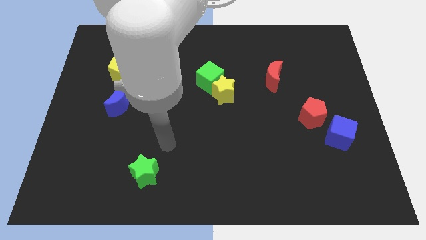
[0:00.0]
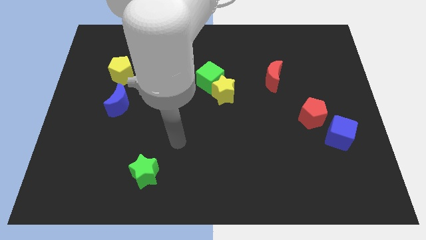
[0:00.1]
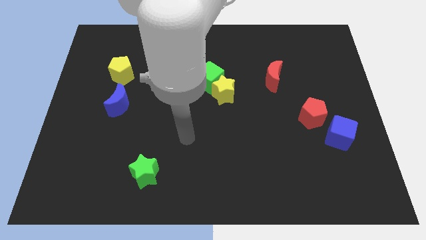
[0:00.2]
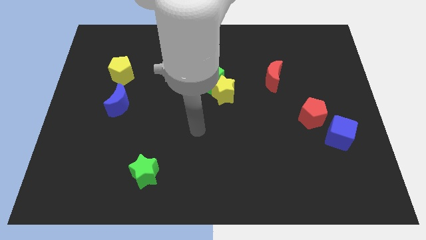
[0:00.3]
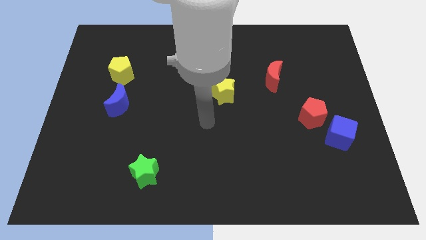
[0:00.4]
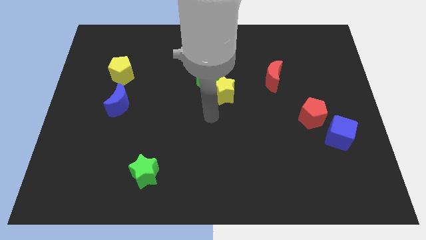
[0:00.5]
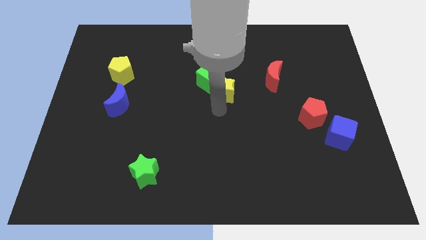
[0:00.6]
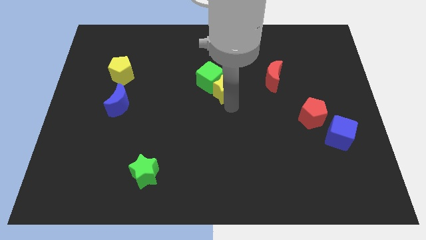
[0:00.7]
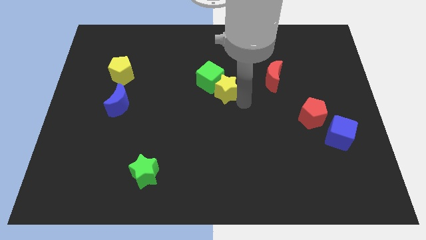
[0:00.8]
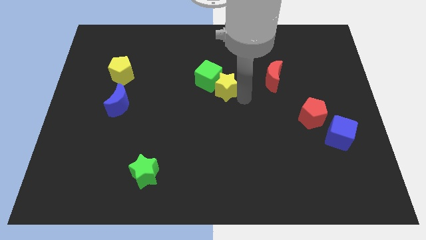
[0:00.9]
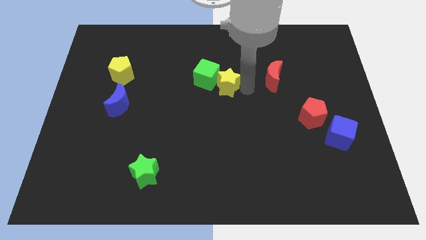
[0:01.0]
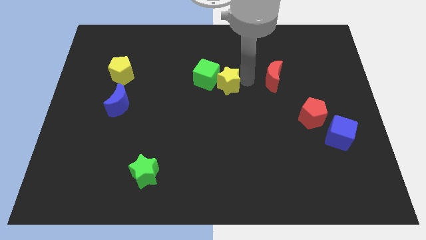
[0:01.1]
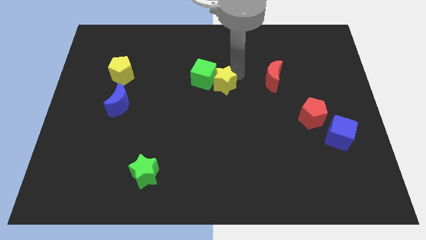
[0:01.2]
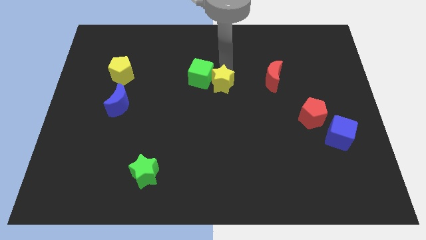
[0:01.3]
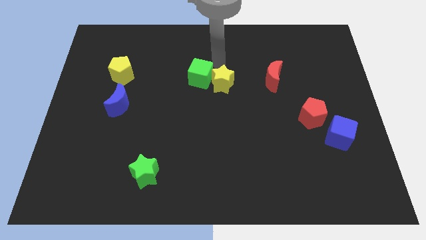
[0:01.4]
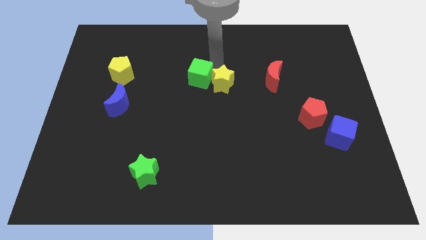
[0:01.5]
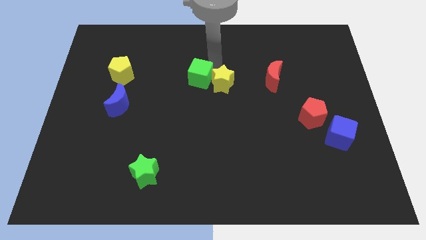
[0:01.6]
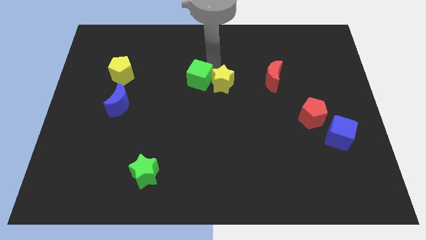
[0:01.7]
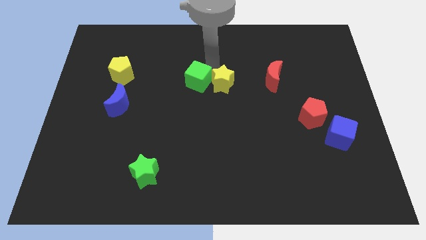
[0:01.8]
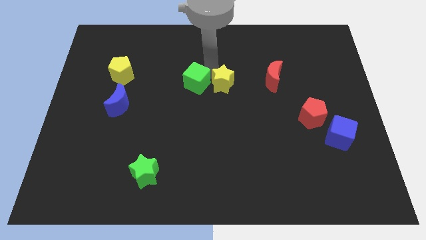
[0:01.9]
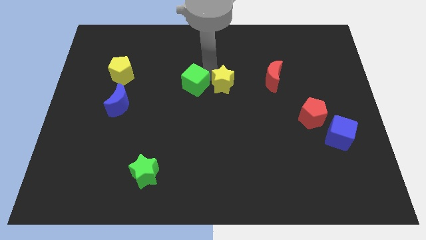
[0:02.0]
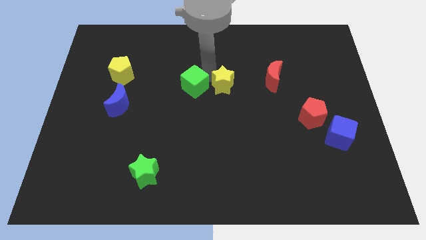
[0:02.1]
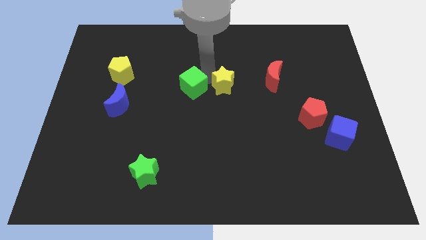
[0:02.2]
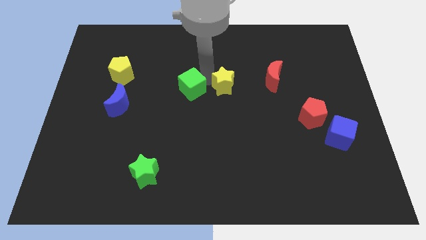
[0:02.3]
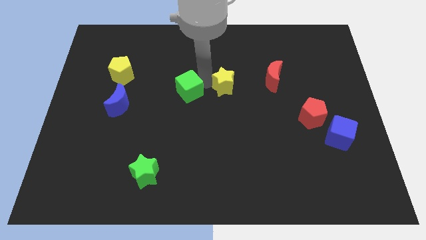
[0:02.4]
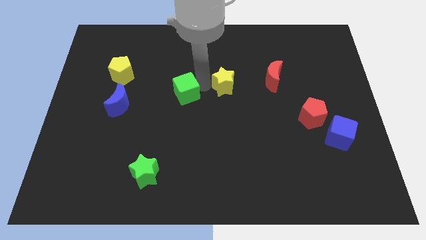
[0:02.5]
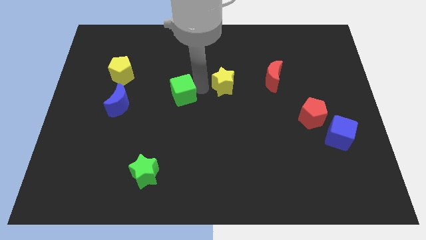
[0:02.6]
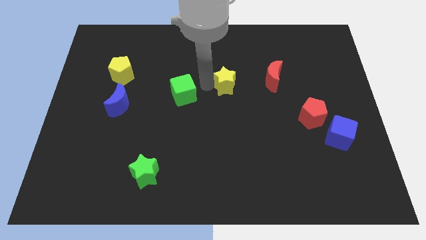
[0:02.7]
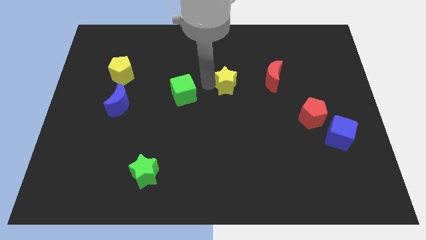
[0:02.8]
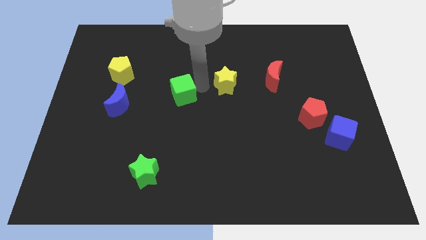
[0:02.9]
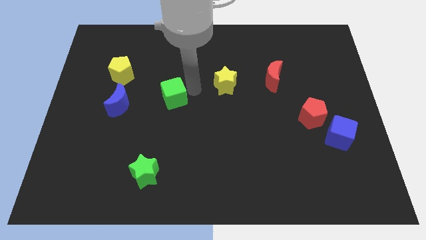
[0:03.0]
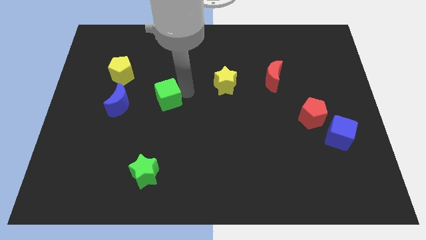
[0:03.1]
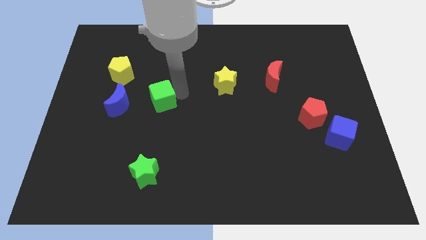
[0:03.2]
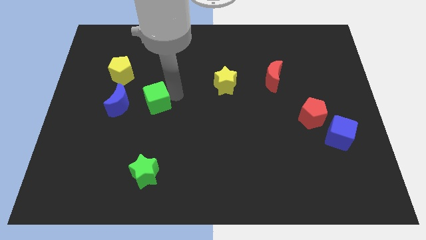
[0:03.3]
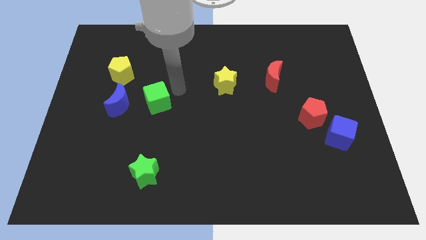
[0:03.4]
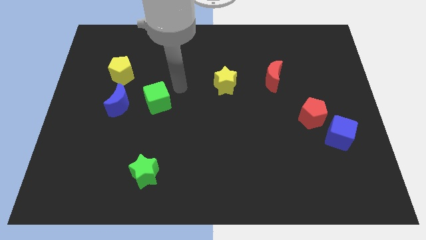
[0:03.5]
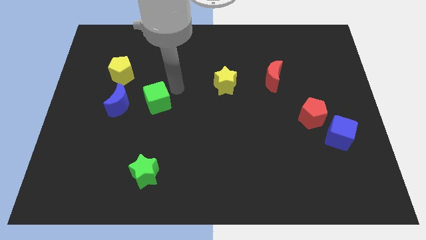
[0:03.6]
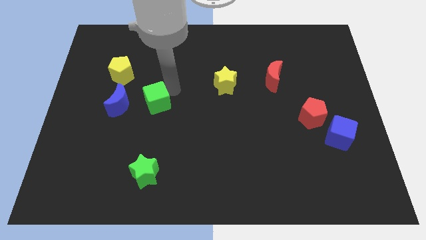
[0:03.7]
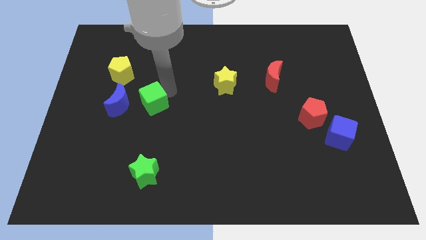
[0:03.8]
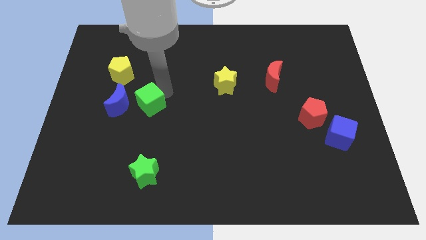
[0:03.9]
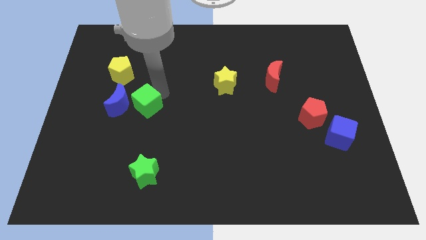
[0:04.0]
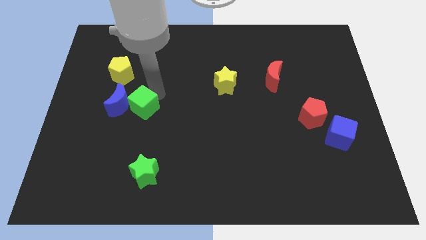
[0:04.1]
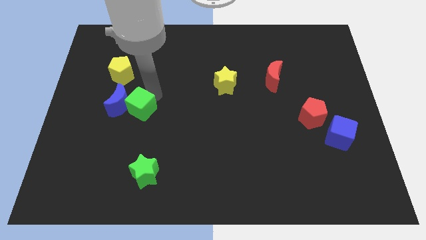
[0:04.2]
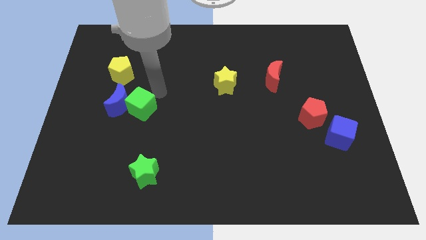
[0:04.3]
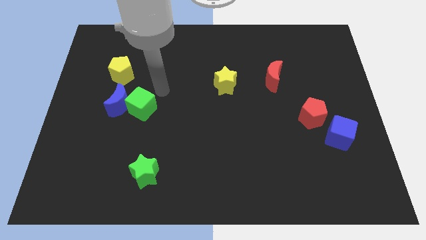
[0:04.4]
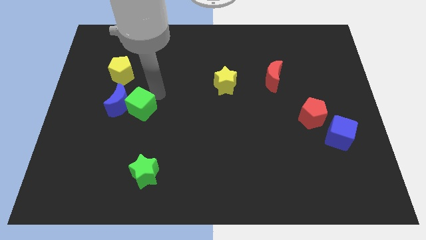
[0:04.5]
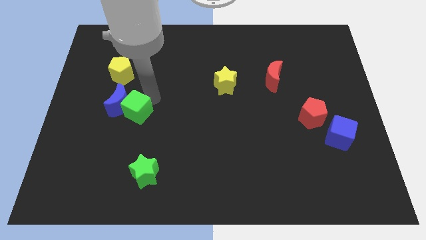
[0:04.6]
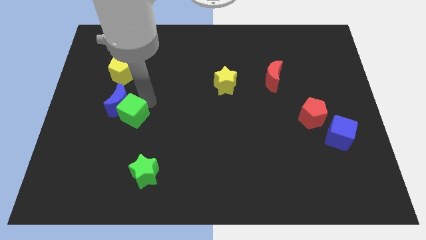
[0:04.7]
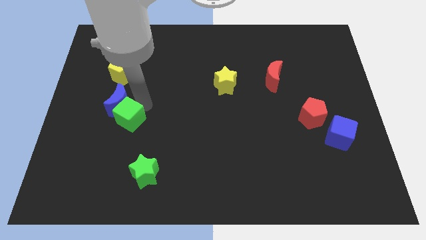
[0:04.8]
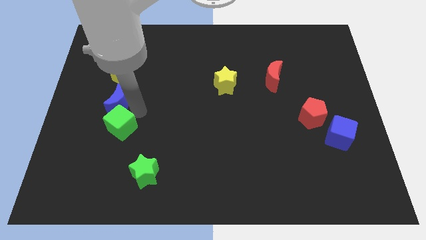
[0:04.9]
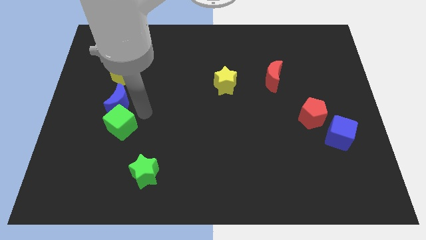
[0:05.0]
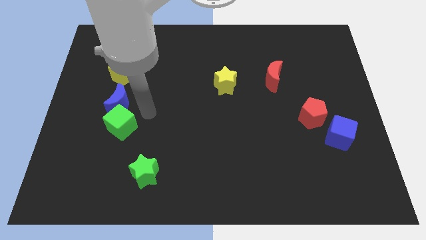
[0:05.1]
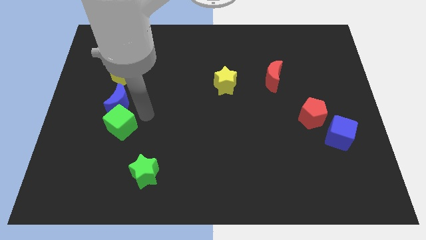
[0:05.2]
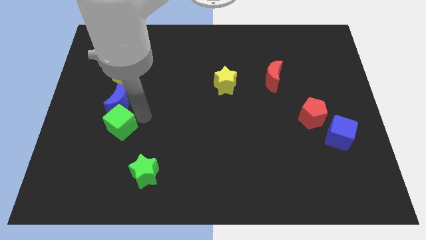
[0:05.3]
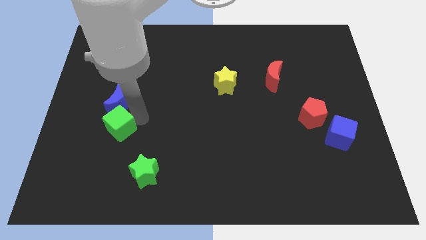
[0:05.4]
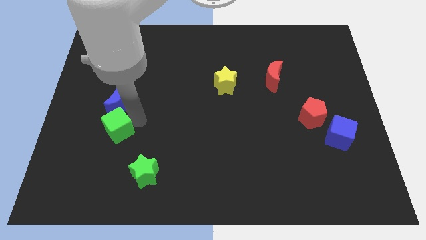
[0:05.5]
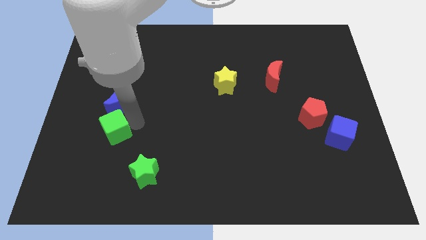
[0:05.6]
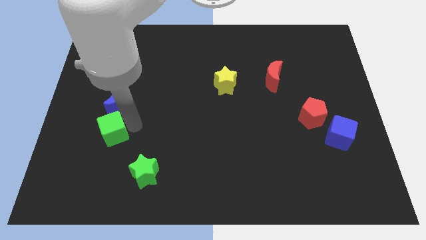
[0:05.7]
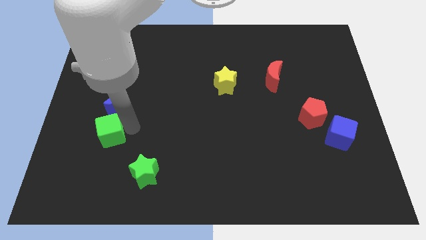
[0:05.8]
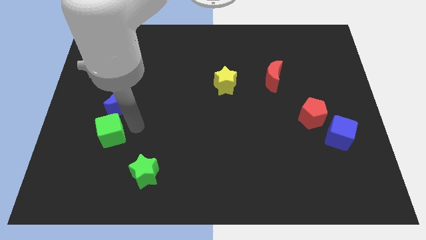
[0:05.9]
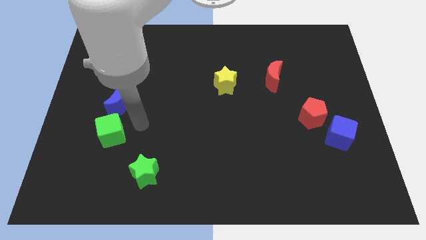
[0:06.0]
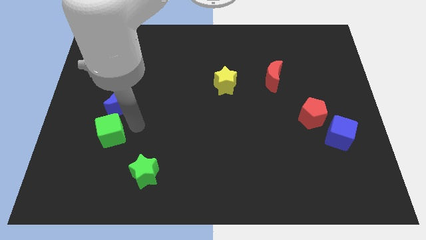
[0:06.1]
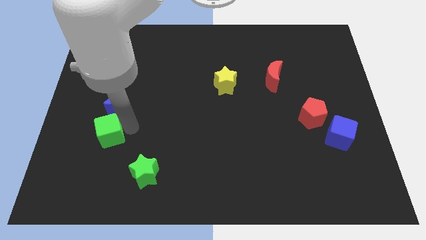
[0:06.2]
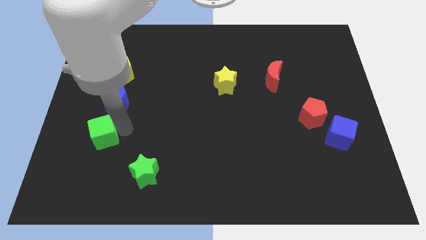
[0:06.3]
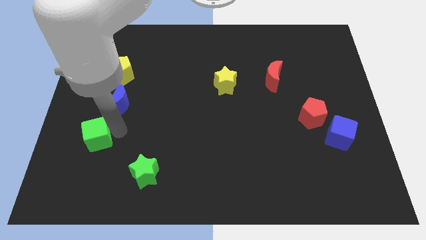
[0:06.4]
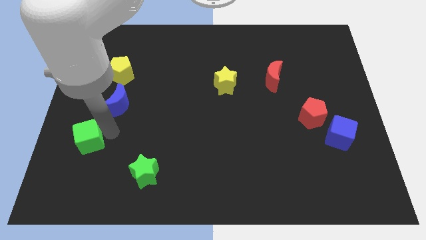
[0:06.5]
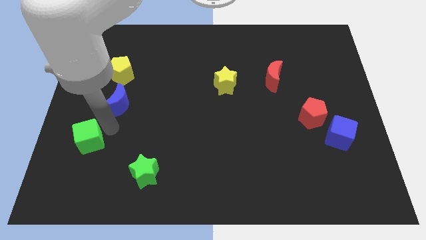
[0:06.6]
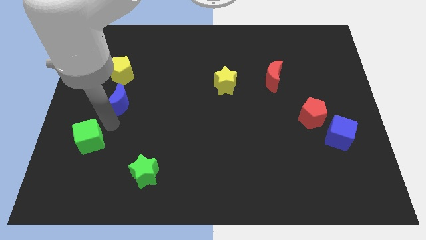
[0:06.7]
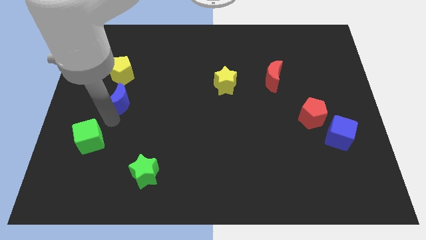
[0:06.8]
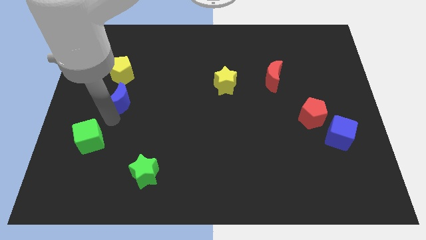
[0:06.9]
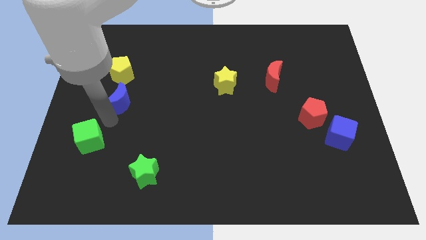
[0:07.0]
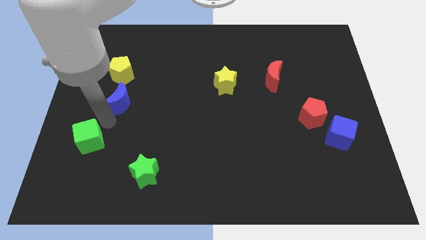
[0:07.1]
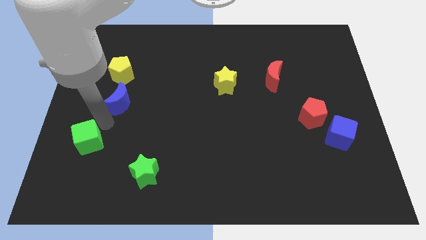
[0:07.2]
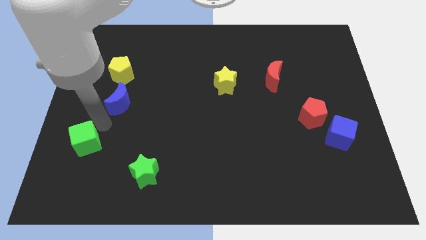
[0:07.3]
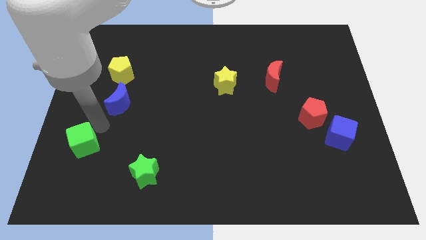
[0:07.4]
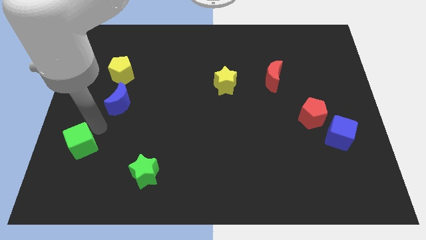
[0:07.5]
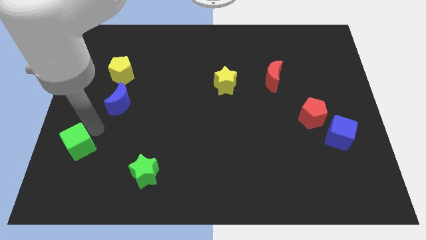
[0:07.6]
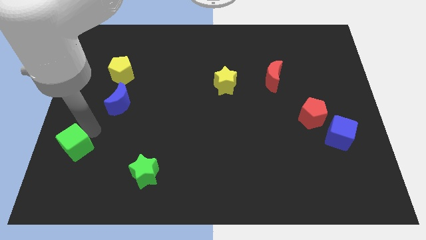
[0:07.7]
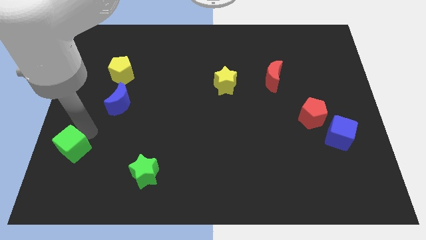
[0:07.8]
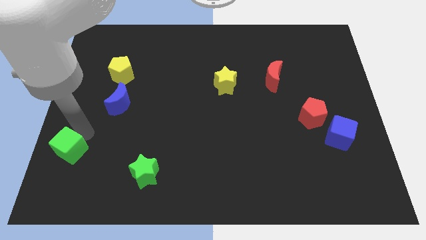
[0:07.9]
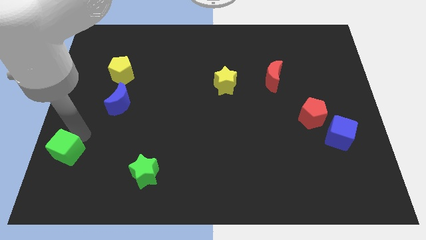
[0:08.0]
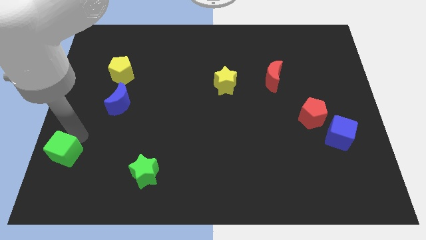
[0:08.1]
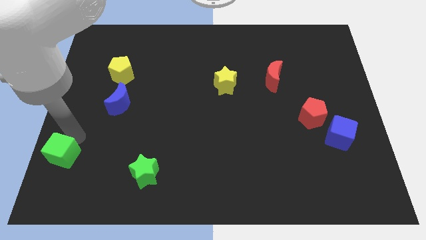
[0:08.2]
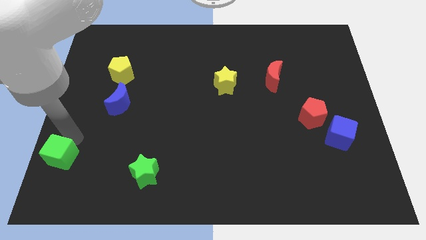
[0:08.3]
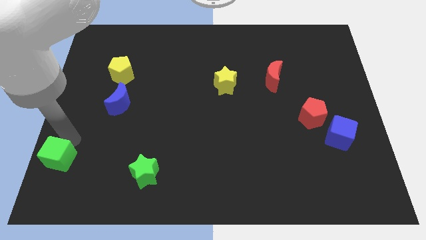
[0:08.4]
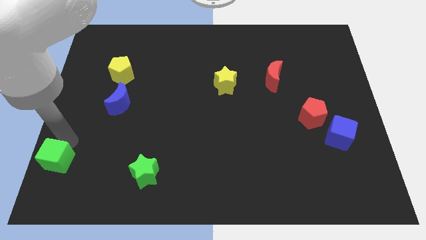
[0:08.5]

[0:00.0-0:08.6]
move the green cube to the bottom left corner
